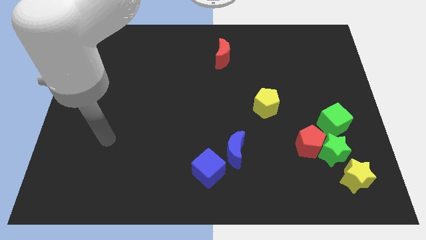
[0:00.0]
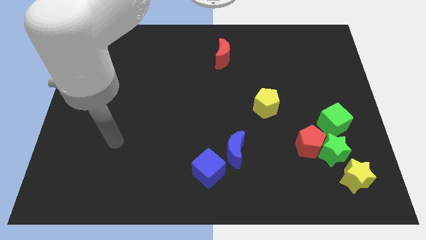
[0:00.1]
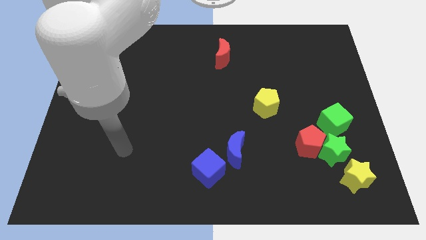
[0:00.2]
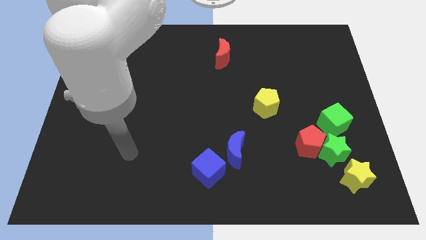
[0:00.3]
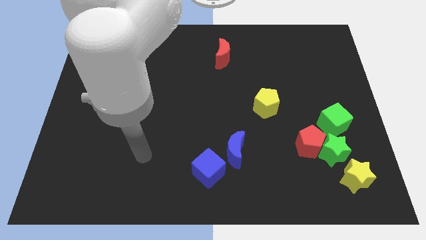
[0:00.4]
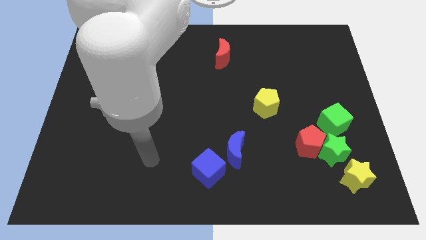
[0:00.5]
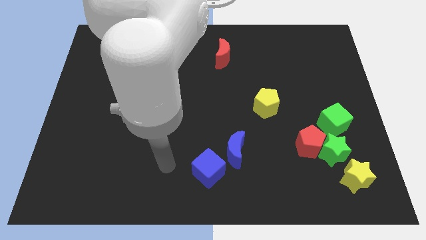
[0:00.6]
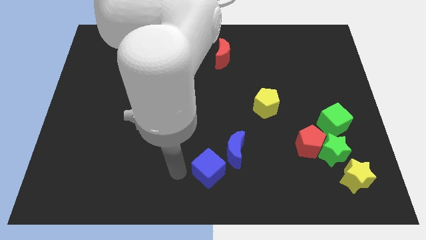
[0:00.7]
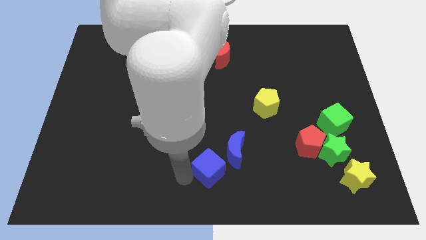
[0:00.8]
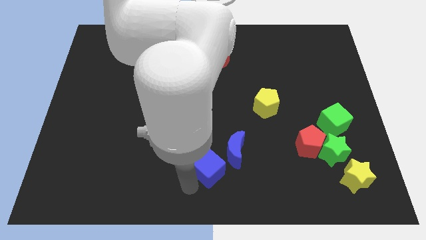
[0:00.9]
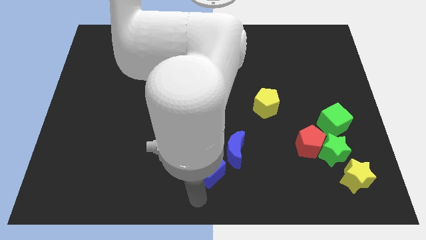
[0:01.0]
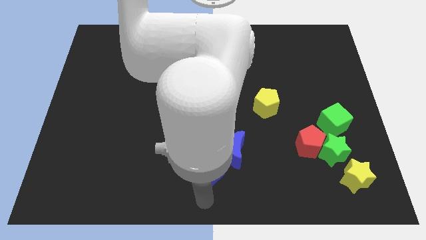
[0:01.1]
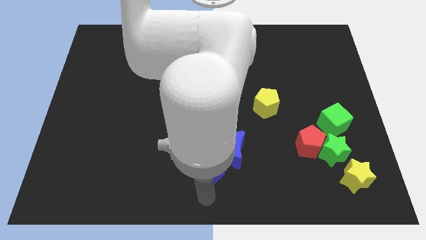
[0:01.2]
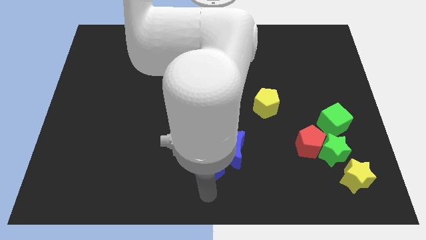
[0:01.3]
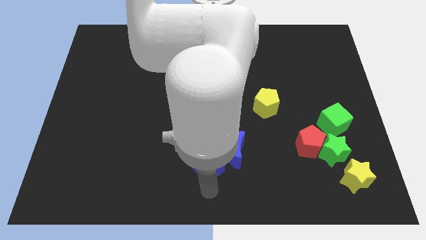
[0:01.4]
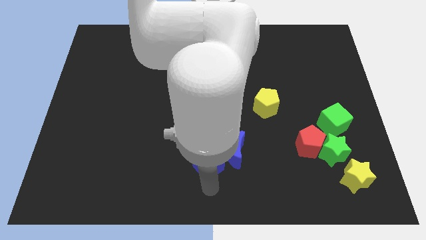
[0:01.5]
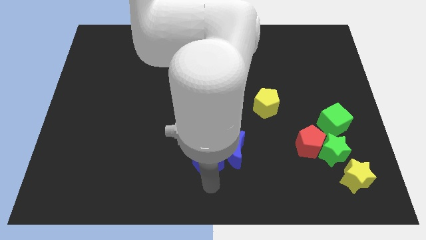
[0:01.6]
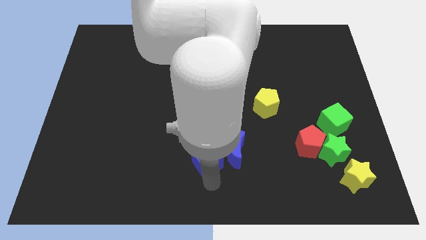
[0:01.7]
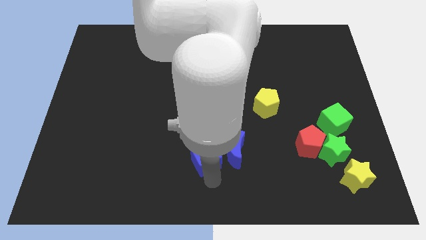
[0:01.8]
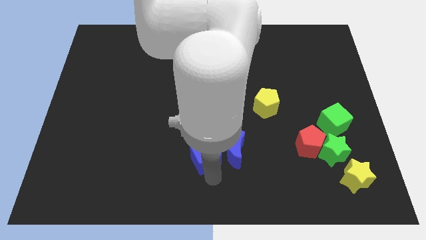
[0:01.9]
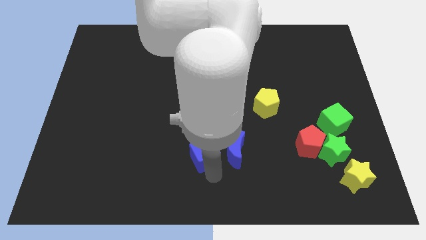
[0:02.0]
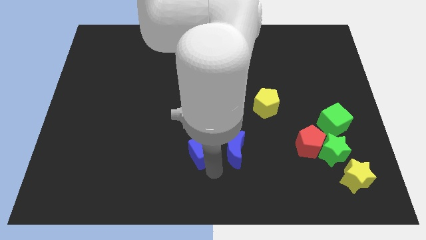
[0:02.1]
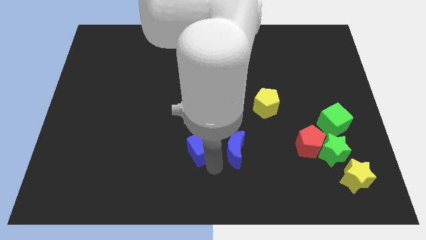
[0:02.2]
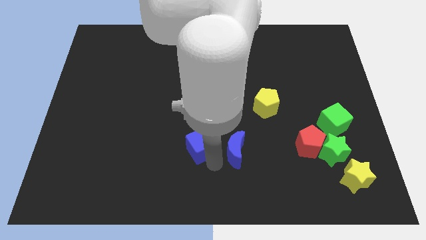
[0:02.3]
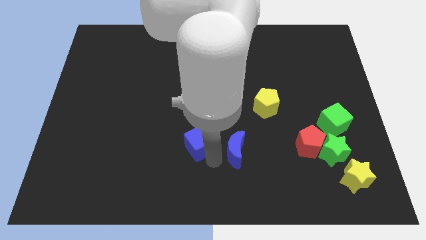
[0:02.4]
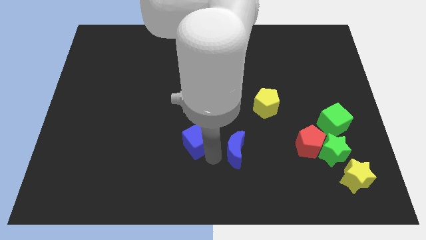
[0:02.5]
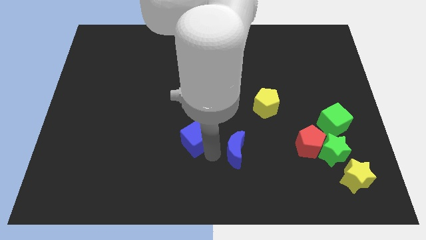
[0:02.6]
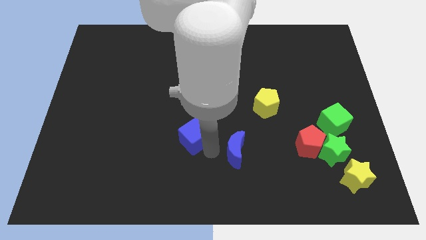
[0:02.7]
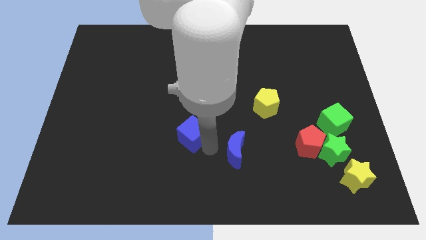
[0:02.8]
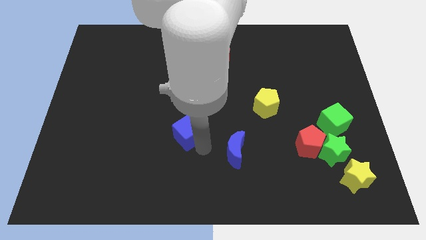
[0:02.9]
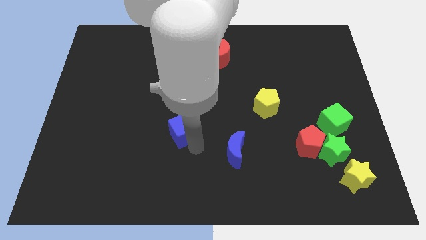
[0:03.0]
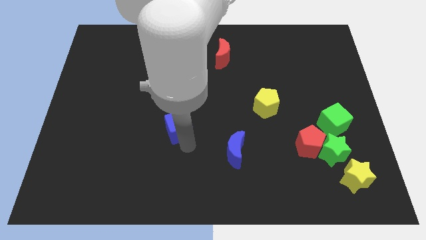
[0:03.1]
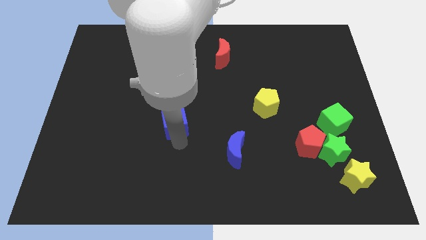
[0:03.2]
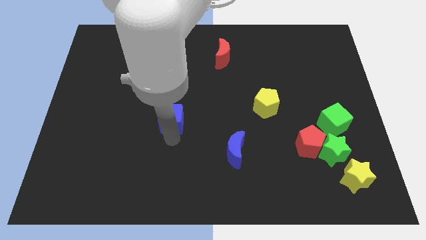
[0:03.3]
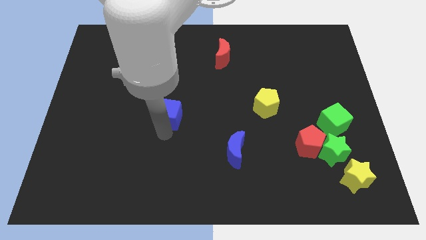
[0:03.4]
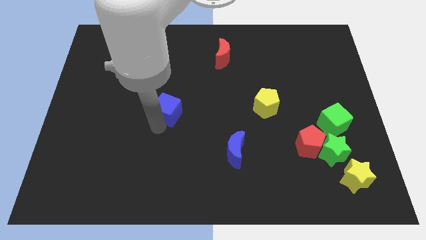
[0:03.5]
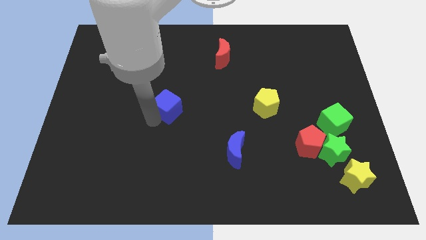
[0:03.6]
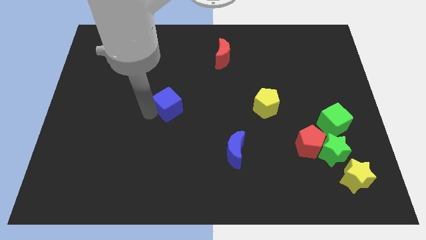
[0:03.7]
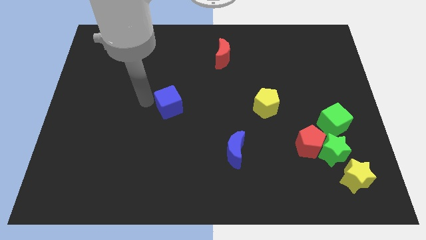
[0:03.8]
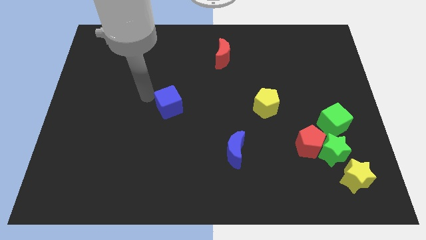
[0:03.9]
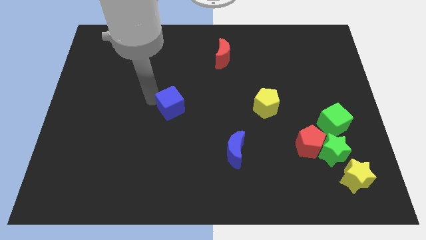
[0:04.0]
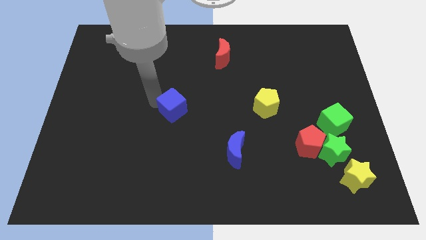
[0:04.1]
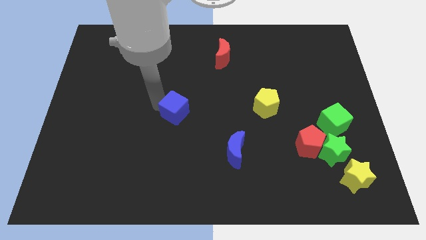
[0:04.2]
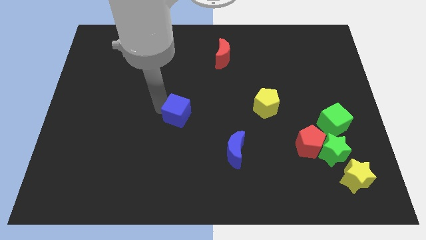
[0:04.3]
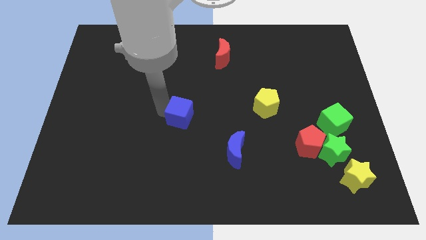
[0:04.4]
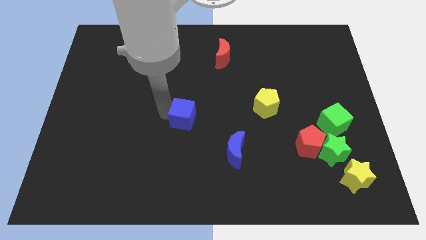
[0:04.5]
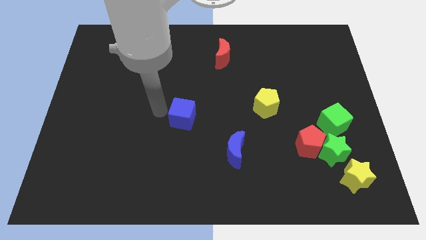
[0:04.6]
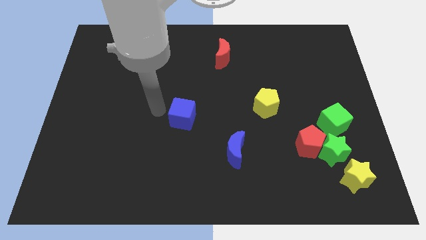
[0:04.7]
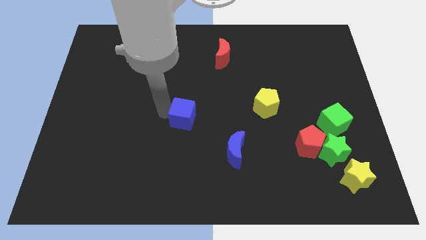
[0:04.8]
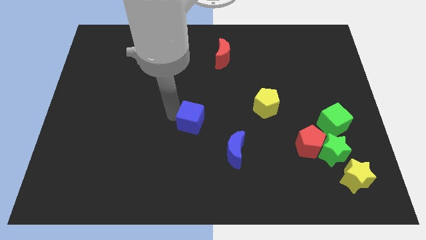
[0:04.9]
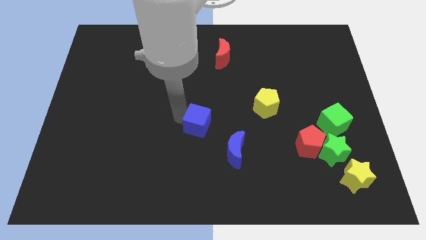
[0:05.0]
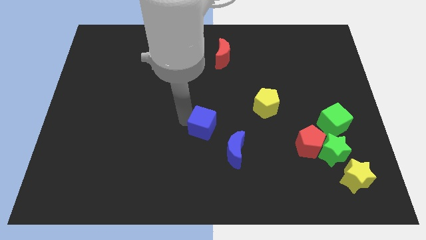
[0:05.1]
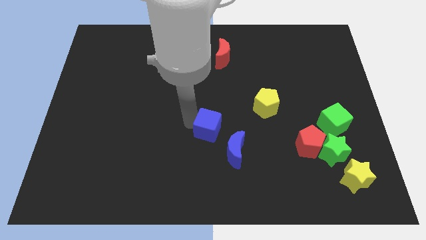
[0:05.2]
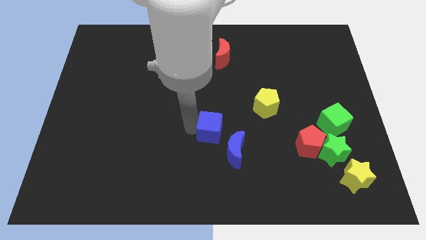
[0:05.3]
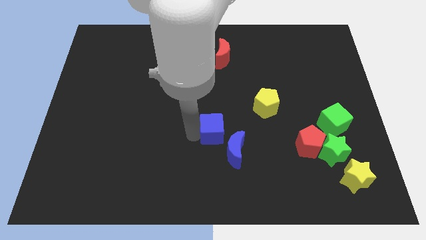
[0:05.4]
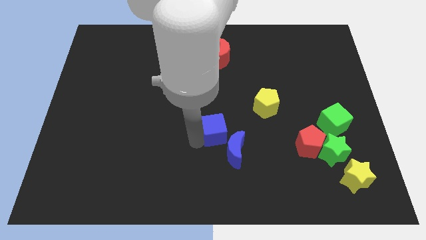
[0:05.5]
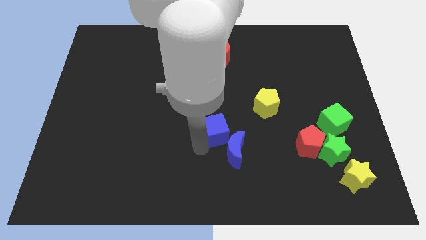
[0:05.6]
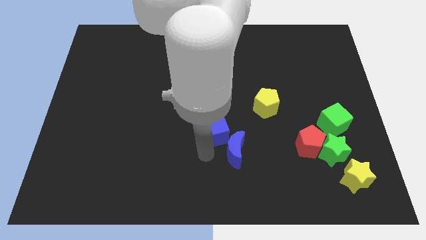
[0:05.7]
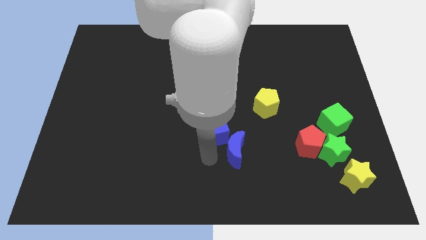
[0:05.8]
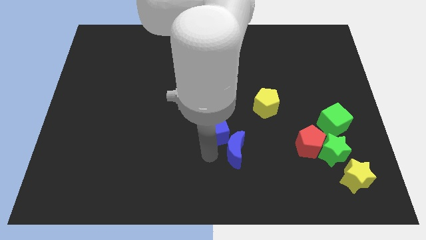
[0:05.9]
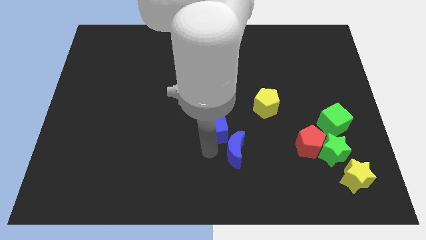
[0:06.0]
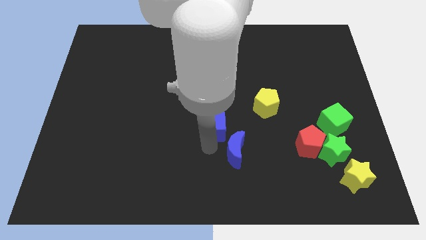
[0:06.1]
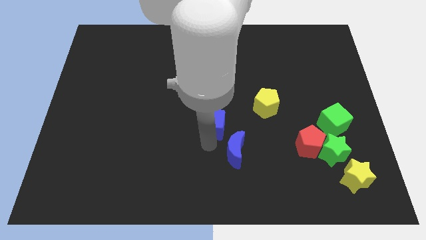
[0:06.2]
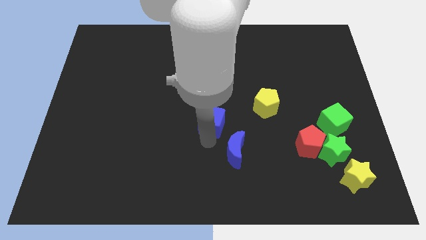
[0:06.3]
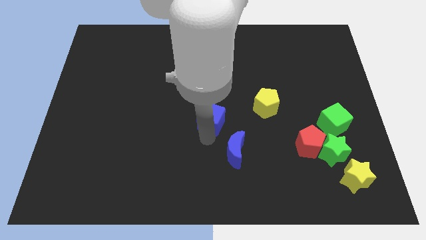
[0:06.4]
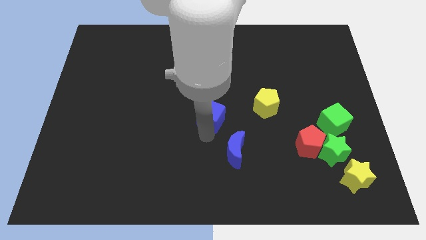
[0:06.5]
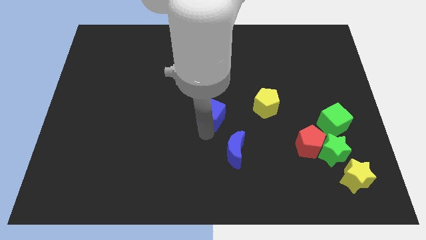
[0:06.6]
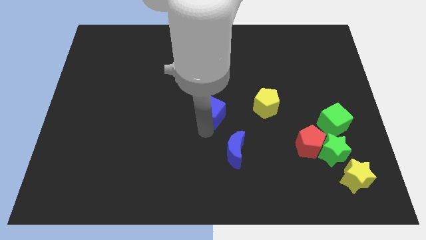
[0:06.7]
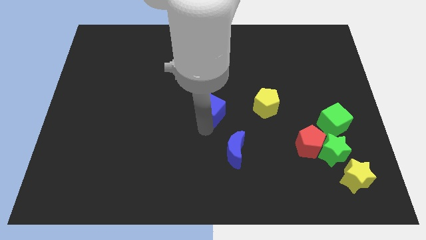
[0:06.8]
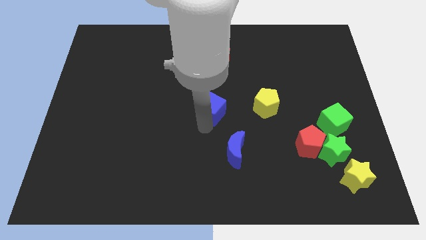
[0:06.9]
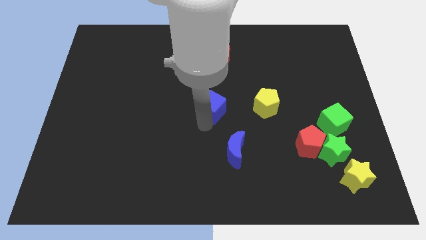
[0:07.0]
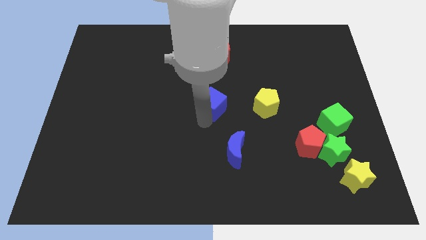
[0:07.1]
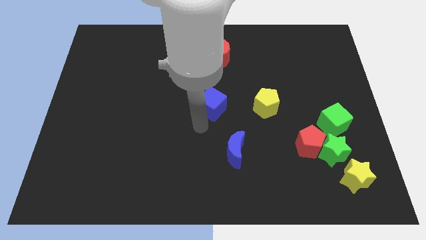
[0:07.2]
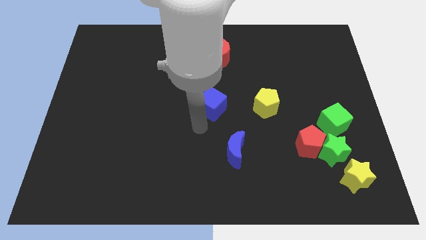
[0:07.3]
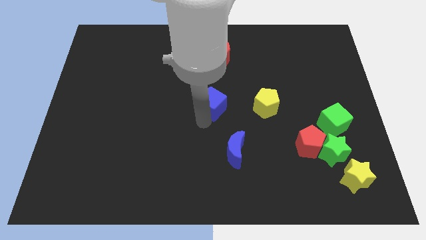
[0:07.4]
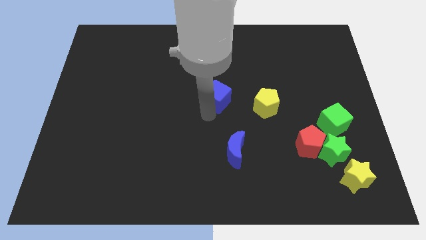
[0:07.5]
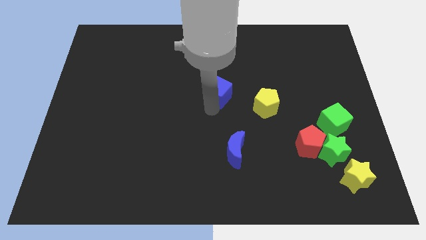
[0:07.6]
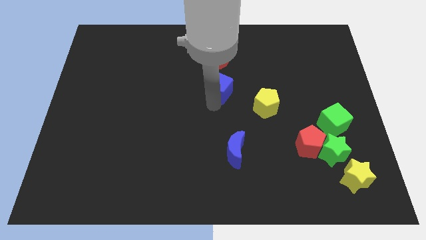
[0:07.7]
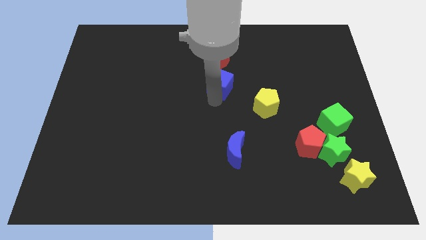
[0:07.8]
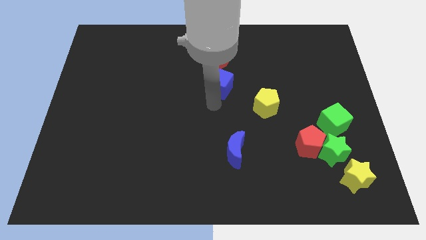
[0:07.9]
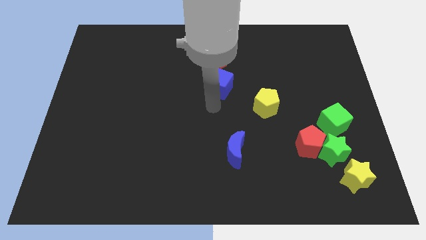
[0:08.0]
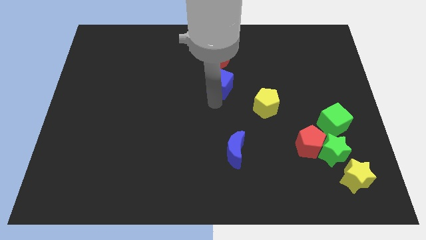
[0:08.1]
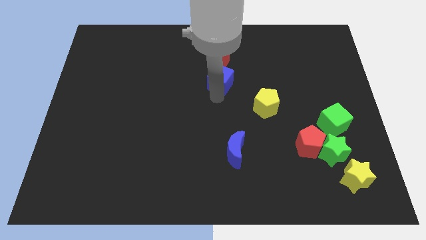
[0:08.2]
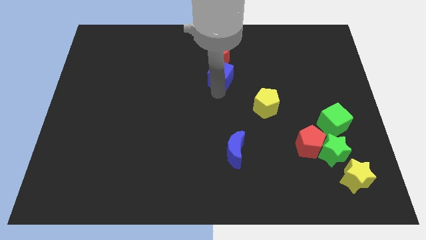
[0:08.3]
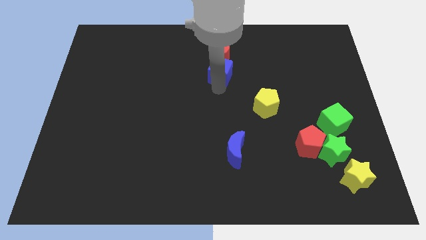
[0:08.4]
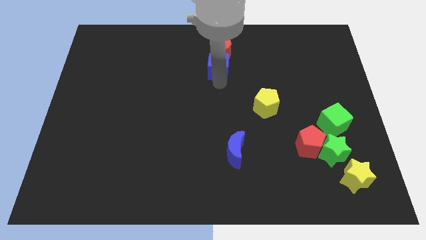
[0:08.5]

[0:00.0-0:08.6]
slide the blue cube next to the red moon
